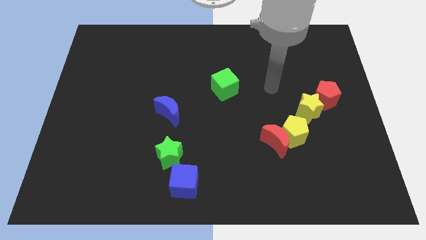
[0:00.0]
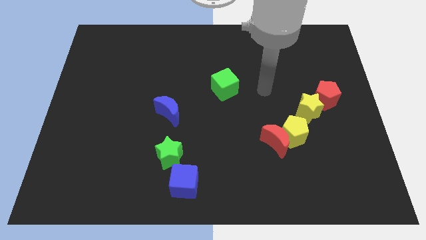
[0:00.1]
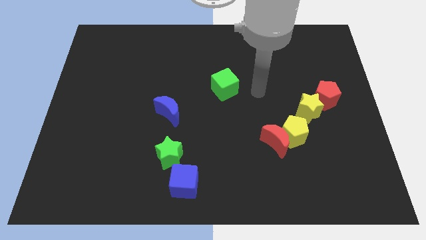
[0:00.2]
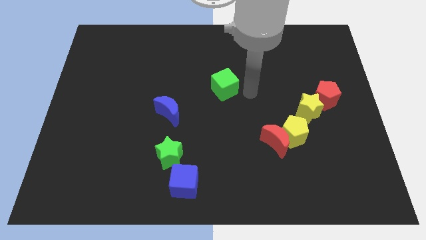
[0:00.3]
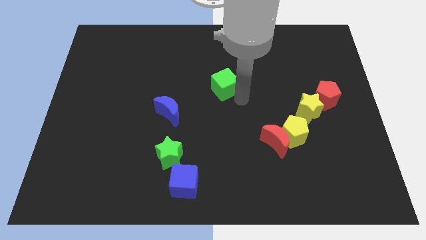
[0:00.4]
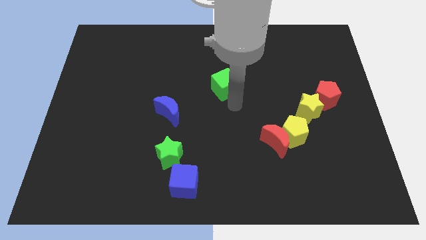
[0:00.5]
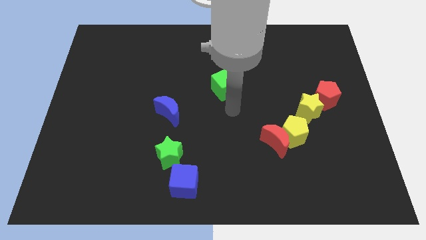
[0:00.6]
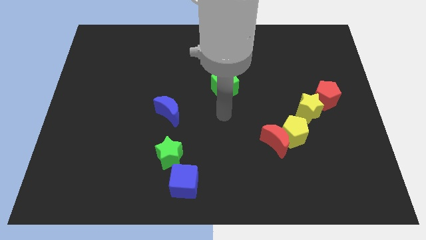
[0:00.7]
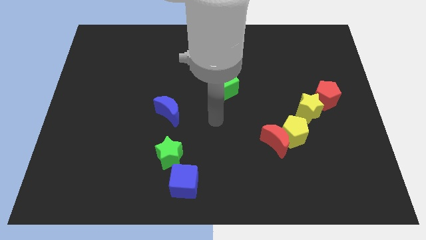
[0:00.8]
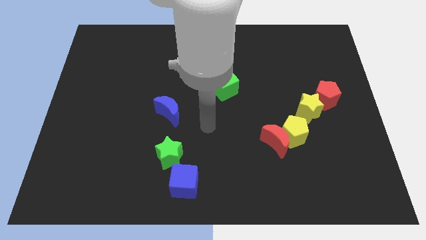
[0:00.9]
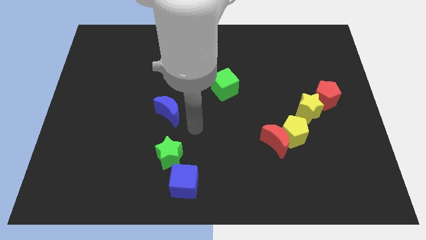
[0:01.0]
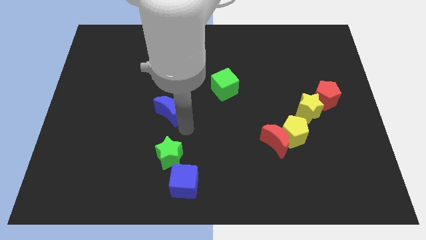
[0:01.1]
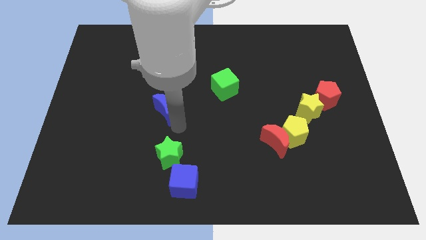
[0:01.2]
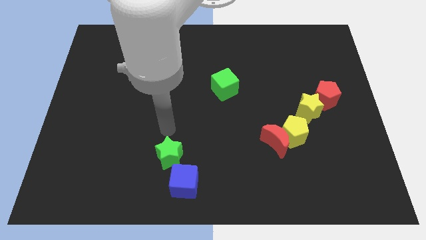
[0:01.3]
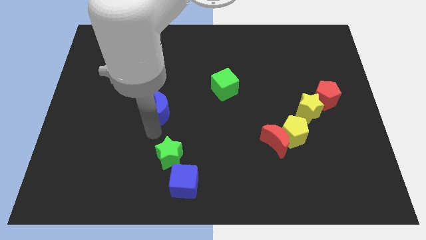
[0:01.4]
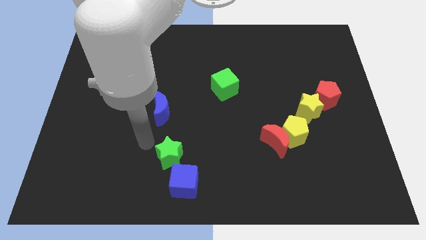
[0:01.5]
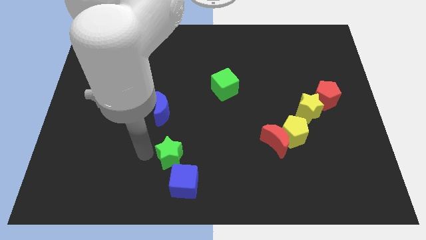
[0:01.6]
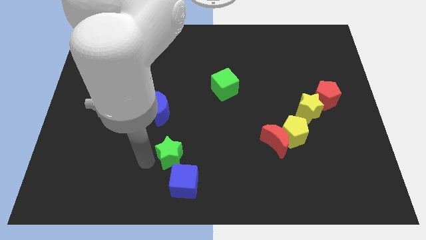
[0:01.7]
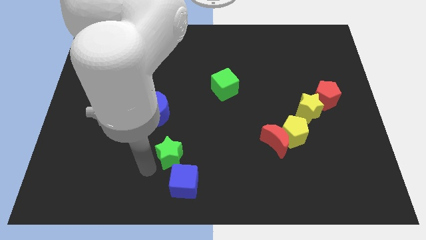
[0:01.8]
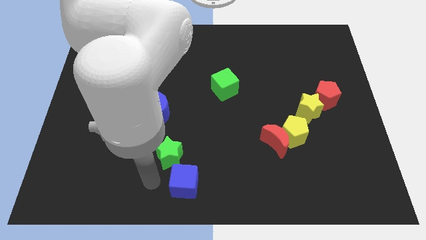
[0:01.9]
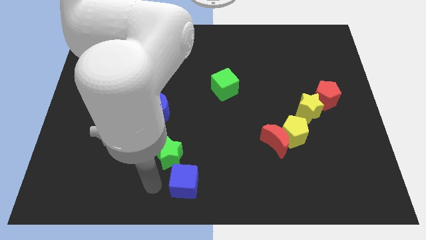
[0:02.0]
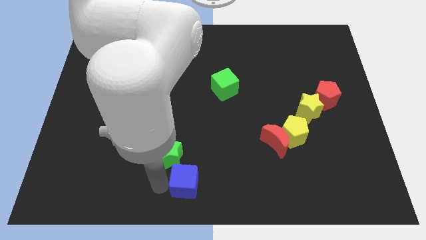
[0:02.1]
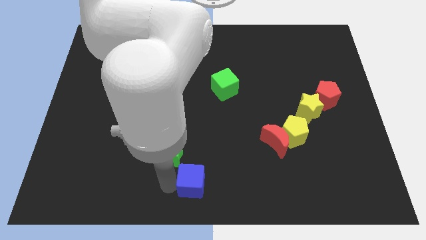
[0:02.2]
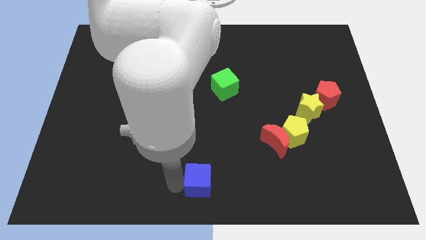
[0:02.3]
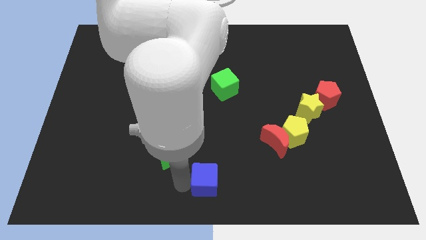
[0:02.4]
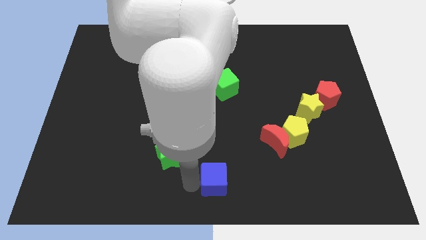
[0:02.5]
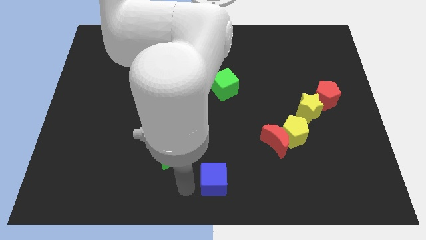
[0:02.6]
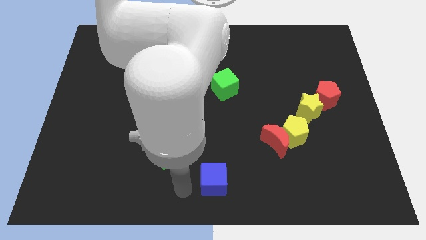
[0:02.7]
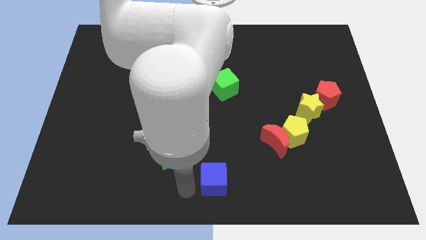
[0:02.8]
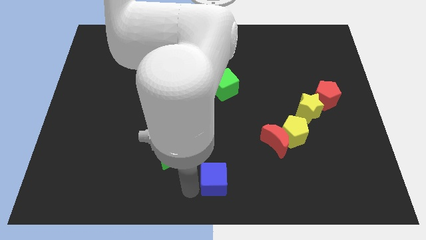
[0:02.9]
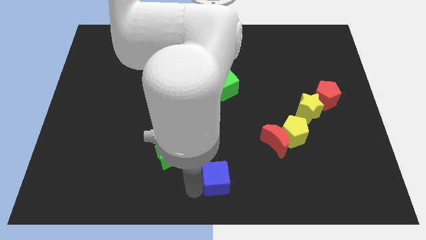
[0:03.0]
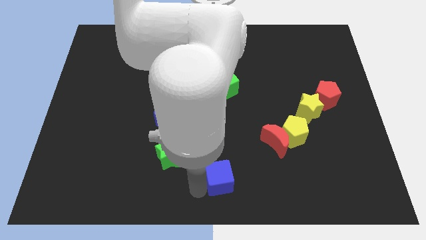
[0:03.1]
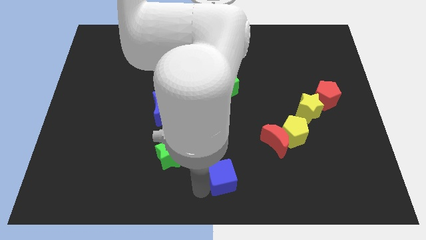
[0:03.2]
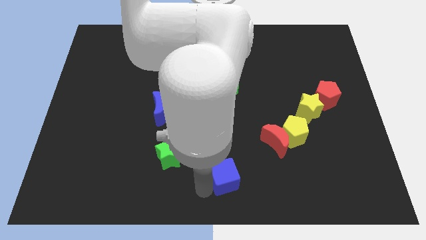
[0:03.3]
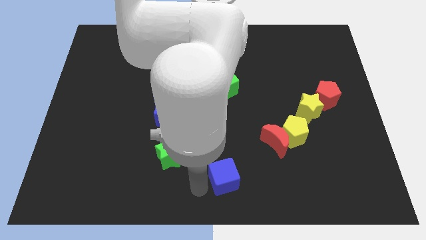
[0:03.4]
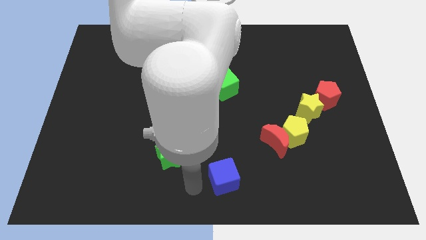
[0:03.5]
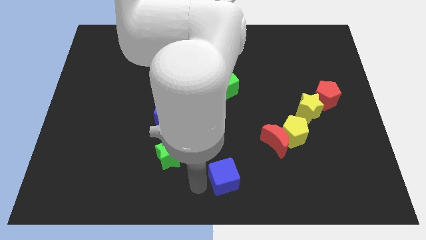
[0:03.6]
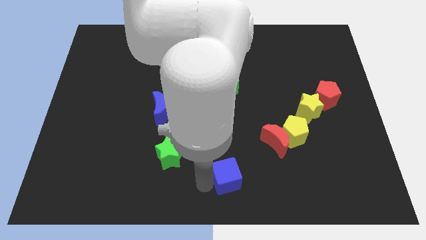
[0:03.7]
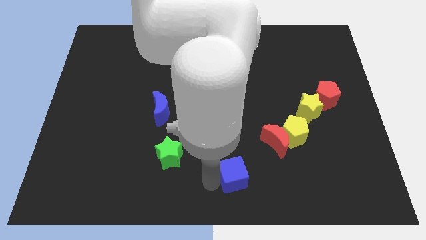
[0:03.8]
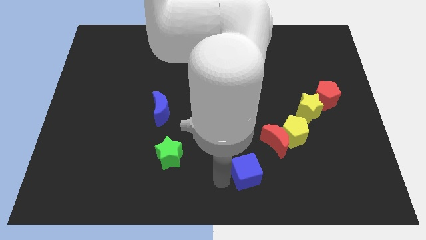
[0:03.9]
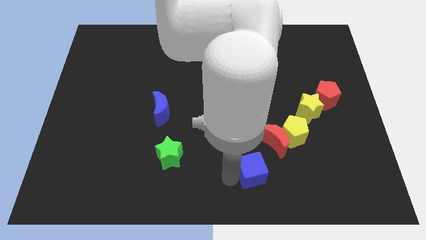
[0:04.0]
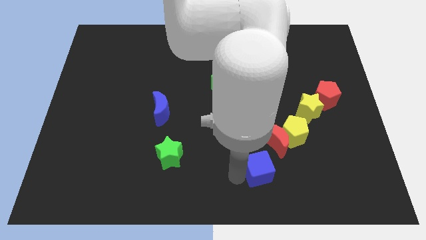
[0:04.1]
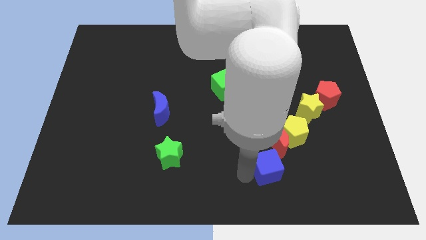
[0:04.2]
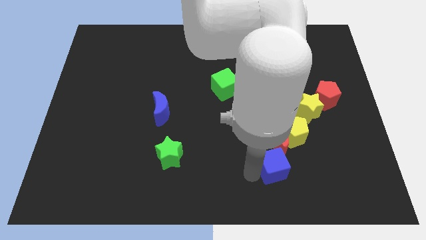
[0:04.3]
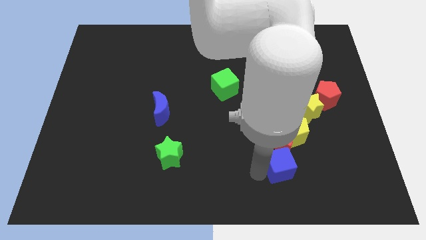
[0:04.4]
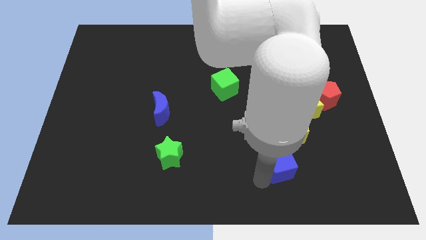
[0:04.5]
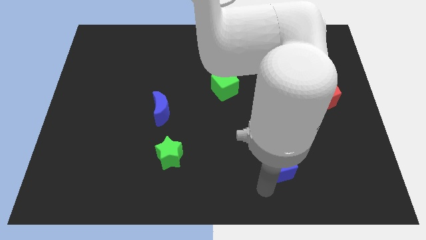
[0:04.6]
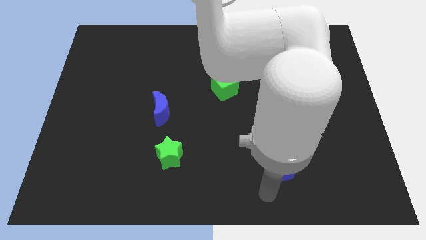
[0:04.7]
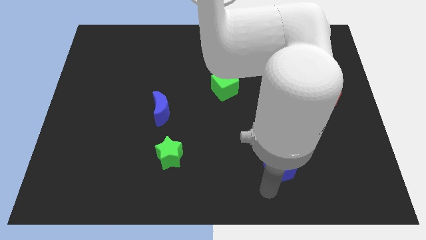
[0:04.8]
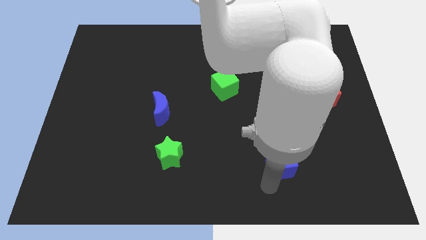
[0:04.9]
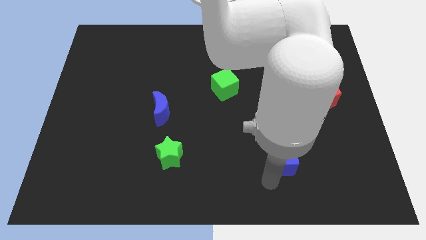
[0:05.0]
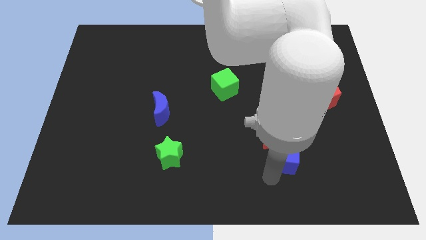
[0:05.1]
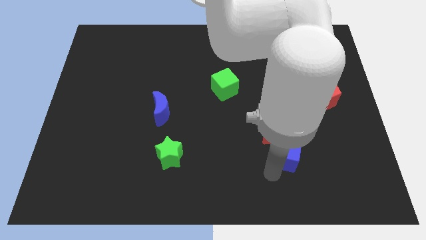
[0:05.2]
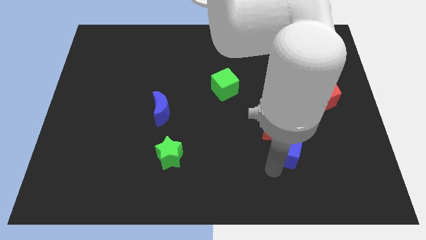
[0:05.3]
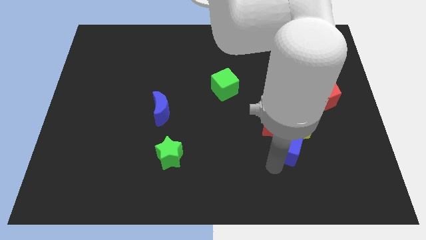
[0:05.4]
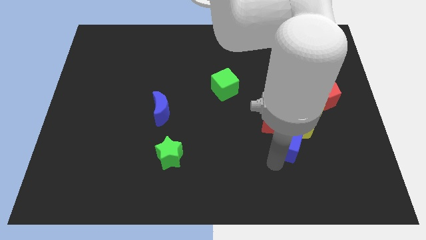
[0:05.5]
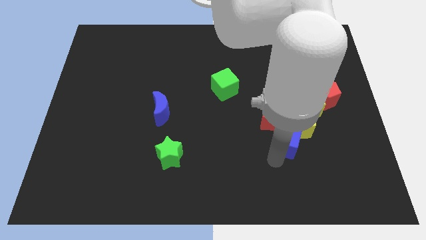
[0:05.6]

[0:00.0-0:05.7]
move the blue cube next to the yellow pentagon

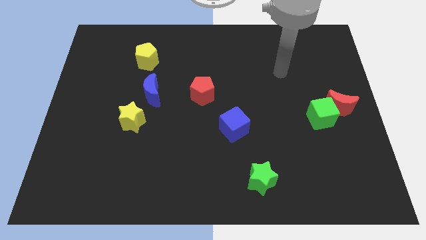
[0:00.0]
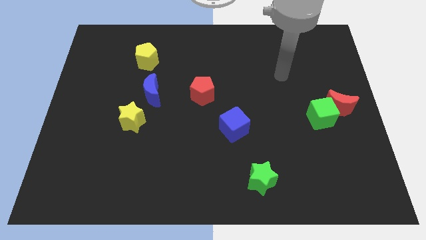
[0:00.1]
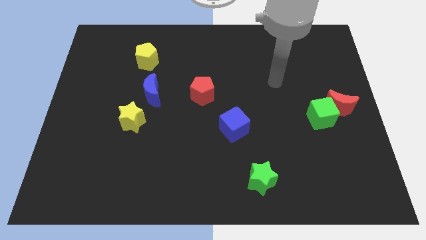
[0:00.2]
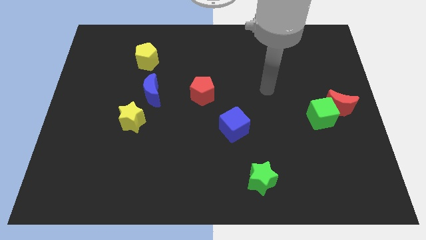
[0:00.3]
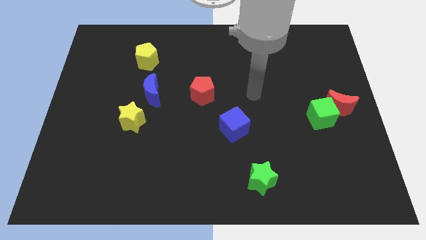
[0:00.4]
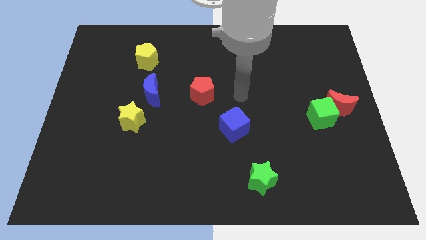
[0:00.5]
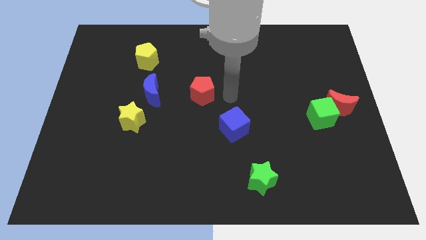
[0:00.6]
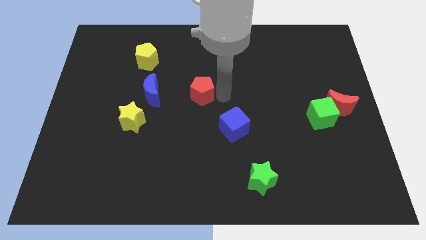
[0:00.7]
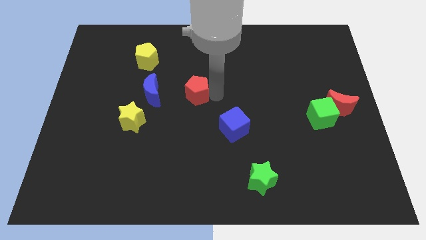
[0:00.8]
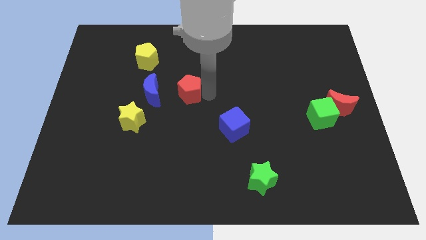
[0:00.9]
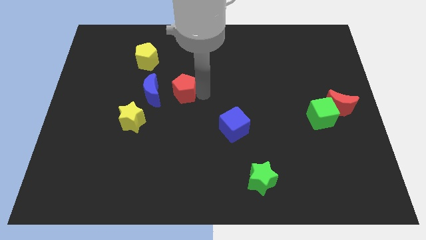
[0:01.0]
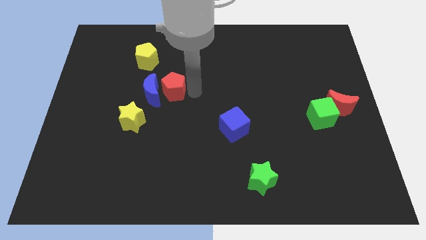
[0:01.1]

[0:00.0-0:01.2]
move the red pentagon close to the blue moon
